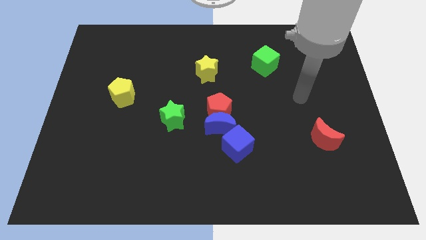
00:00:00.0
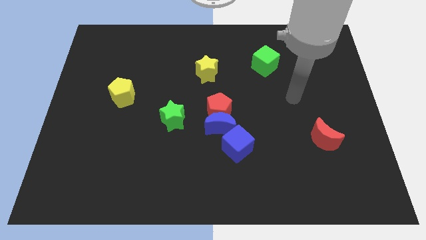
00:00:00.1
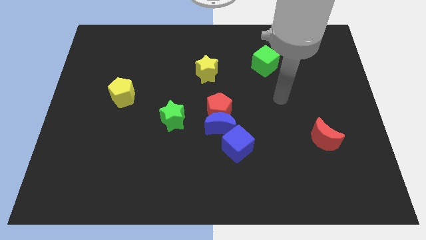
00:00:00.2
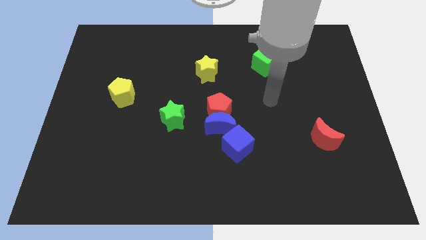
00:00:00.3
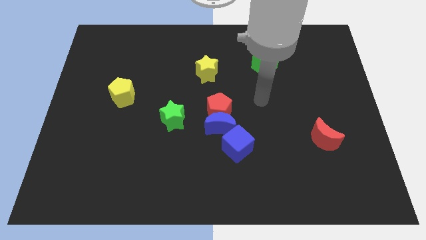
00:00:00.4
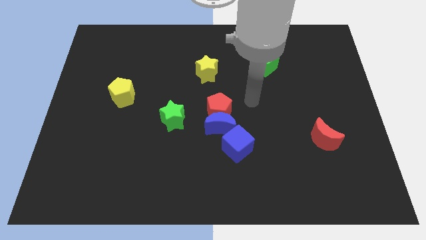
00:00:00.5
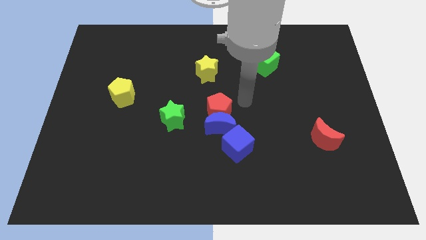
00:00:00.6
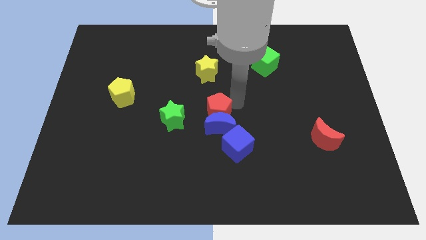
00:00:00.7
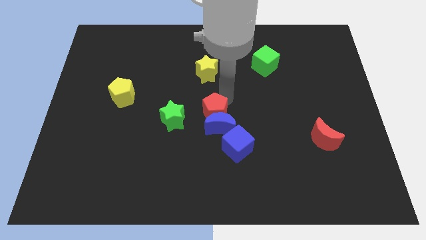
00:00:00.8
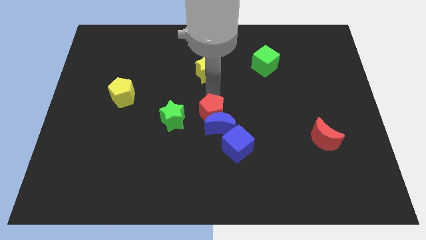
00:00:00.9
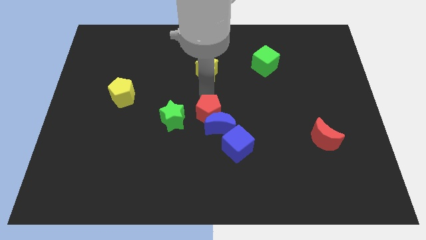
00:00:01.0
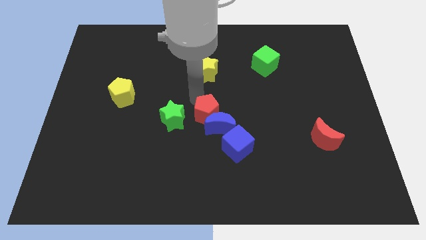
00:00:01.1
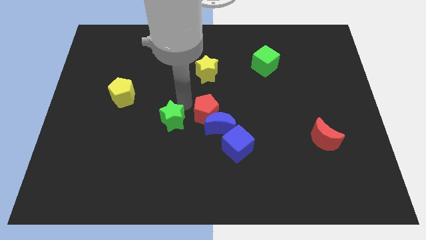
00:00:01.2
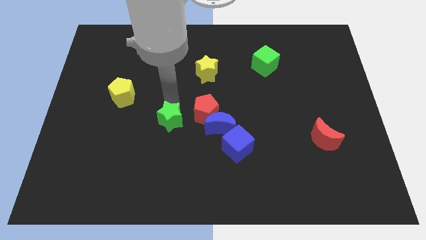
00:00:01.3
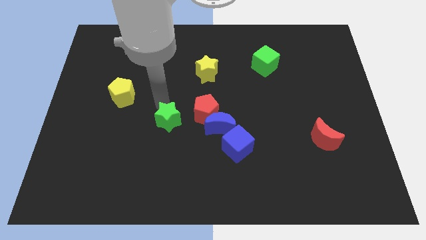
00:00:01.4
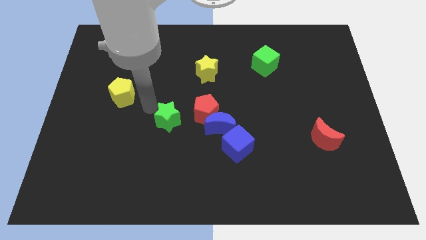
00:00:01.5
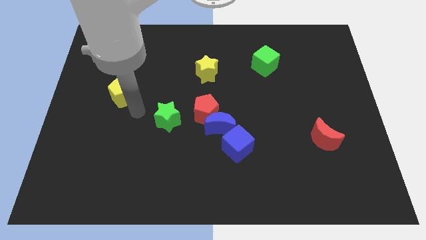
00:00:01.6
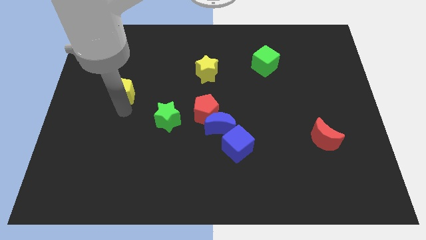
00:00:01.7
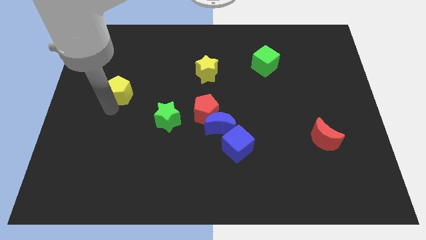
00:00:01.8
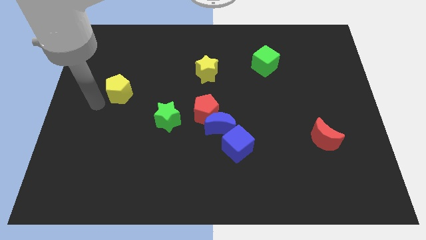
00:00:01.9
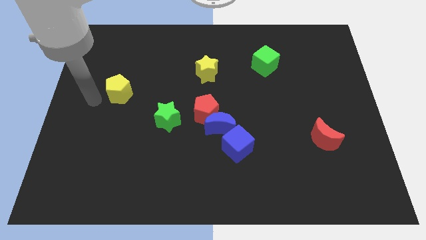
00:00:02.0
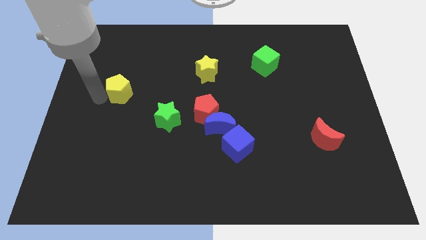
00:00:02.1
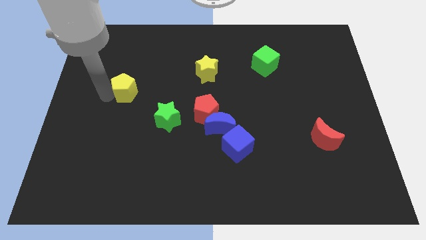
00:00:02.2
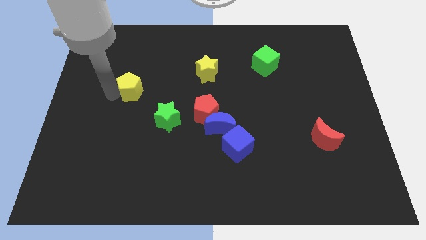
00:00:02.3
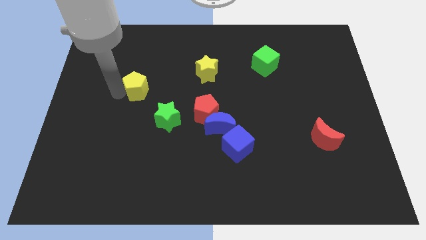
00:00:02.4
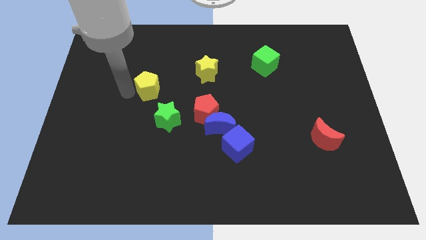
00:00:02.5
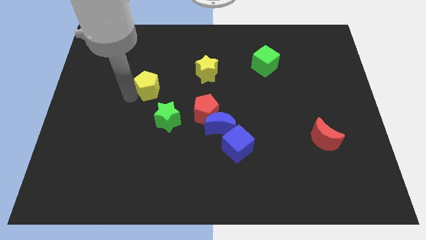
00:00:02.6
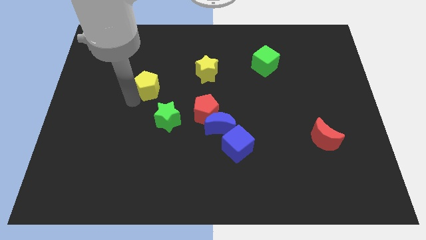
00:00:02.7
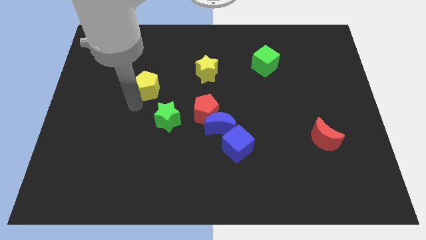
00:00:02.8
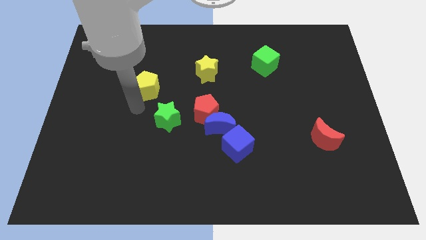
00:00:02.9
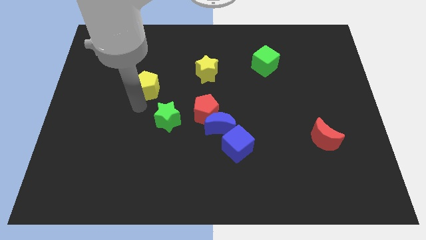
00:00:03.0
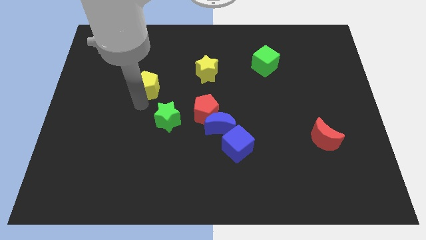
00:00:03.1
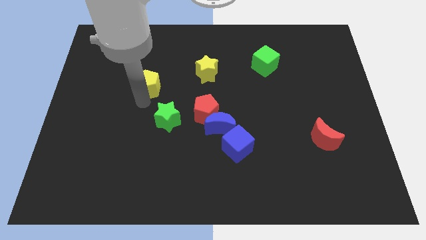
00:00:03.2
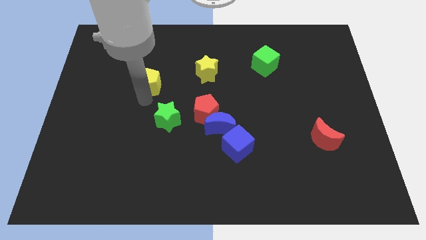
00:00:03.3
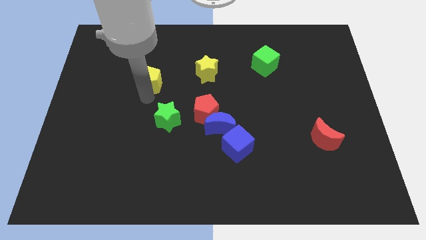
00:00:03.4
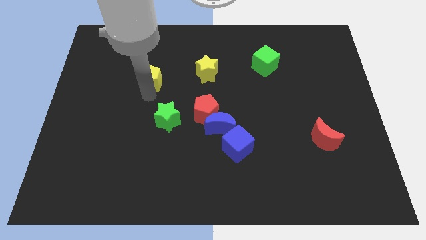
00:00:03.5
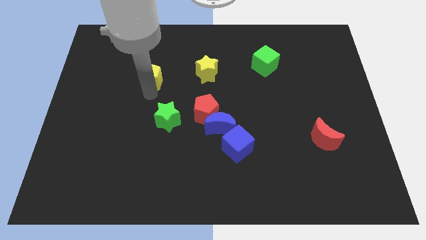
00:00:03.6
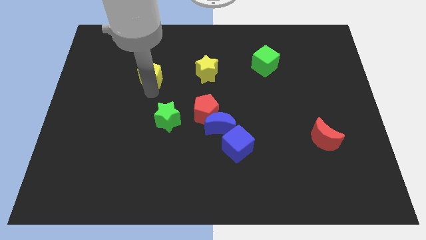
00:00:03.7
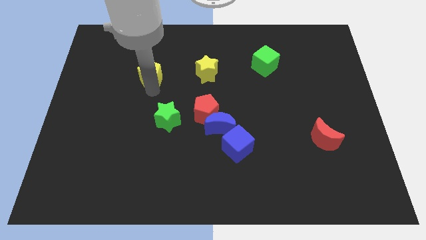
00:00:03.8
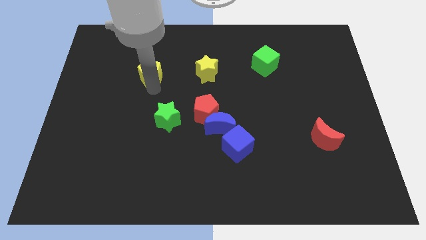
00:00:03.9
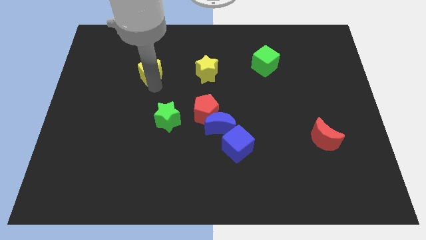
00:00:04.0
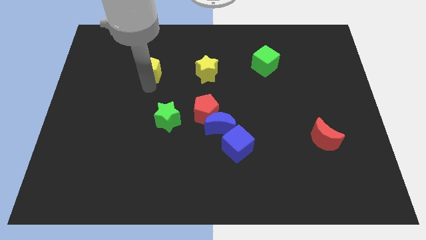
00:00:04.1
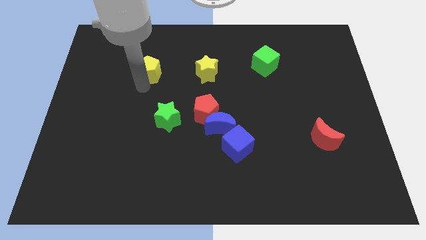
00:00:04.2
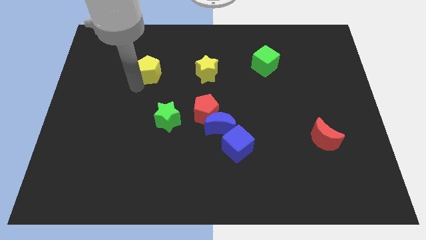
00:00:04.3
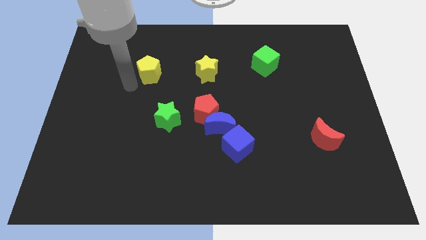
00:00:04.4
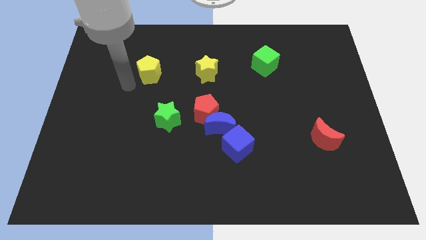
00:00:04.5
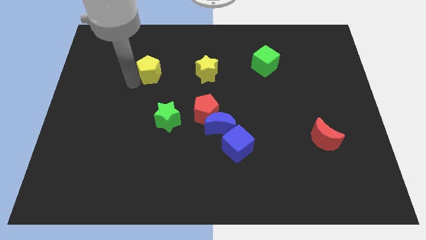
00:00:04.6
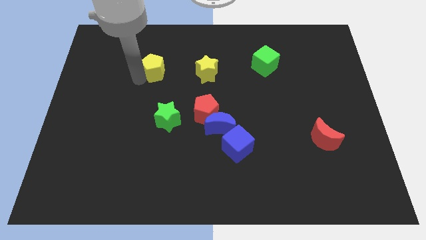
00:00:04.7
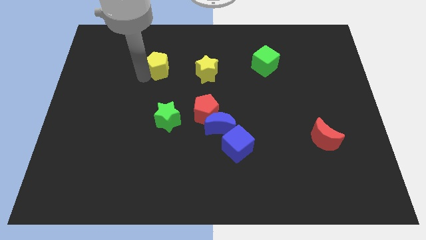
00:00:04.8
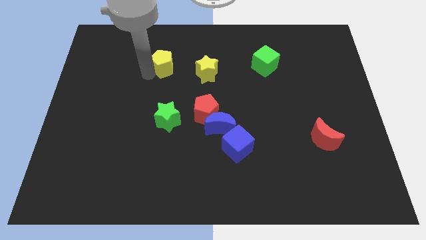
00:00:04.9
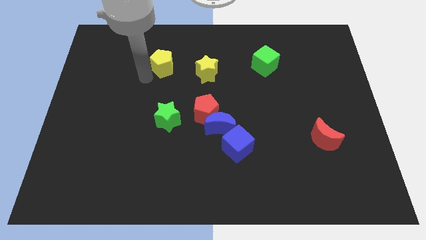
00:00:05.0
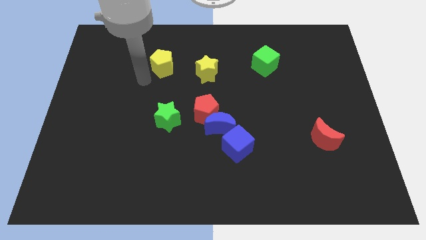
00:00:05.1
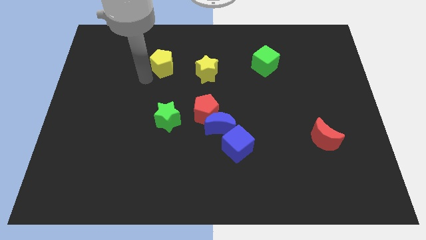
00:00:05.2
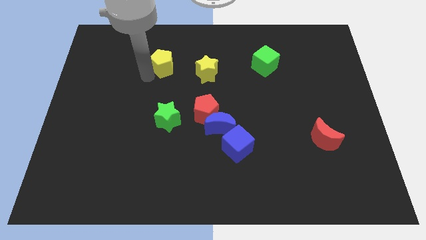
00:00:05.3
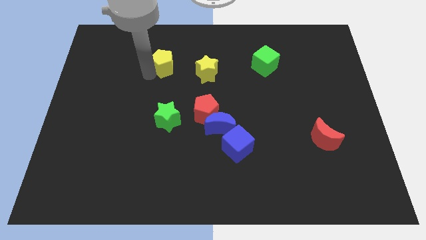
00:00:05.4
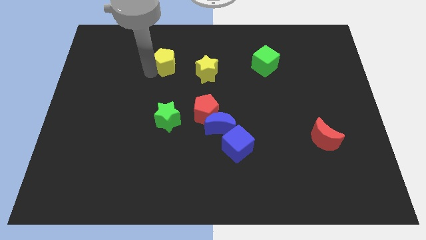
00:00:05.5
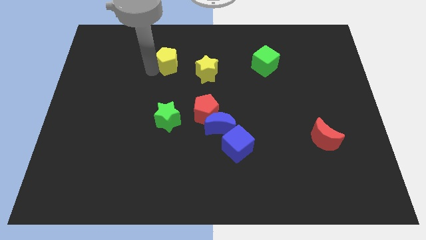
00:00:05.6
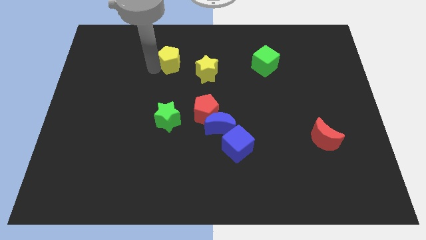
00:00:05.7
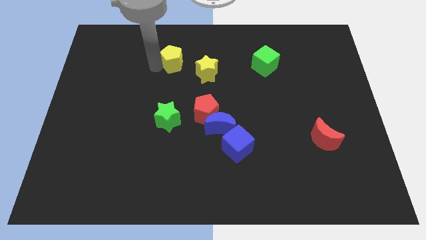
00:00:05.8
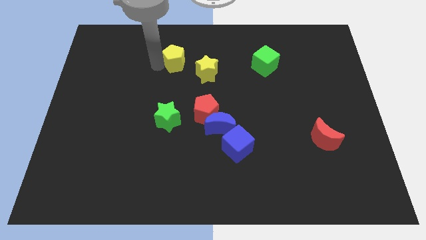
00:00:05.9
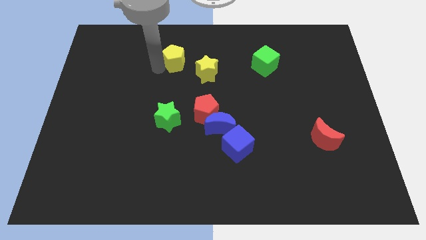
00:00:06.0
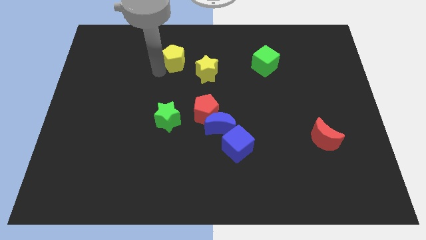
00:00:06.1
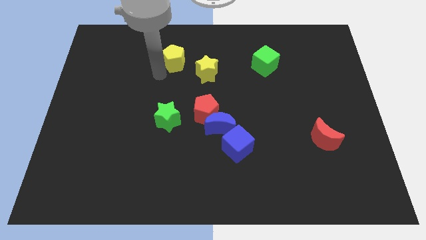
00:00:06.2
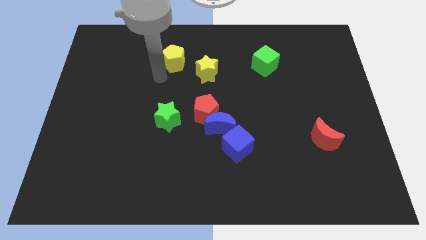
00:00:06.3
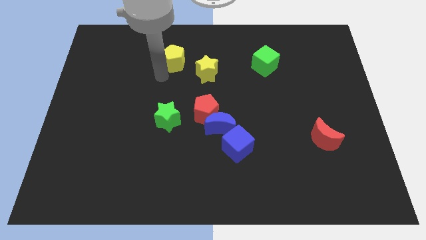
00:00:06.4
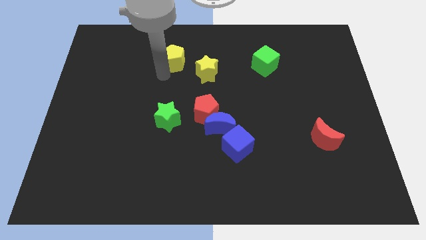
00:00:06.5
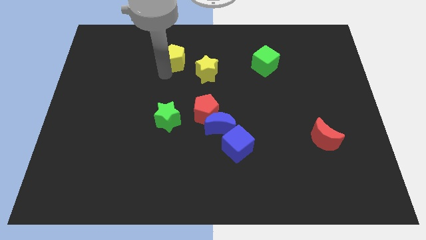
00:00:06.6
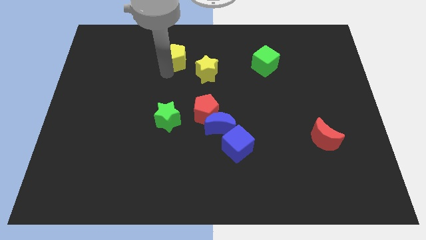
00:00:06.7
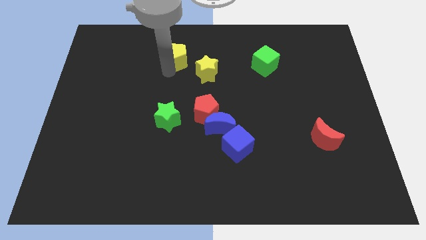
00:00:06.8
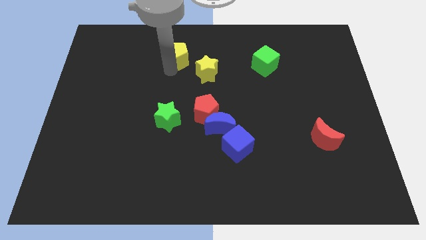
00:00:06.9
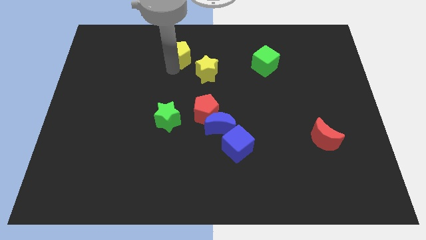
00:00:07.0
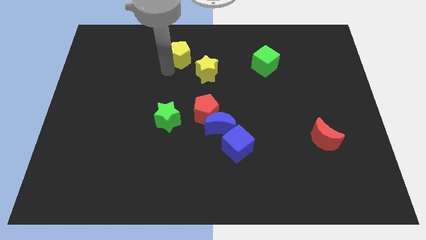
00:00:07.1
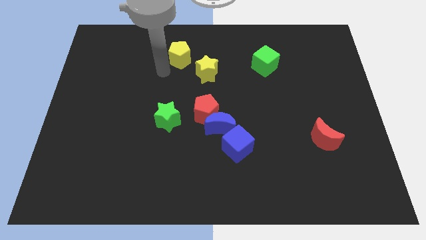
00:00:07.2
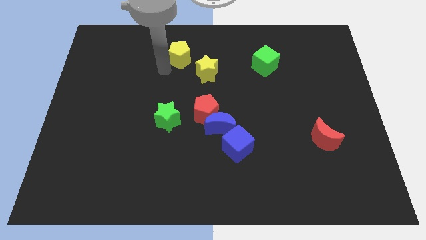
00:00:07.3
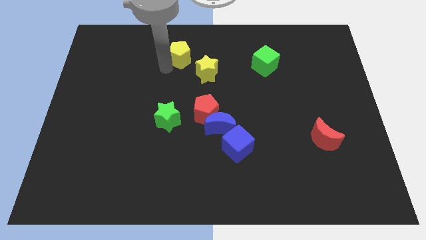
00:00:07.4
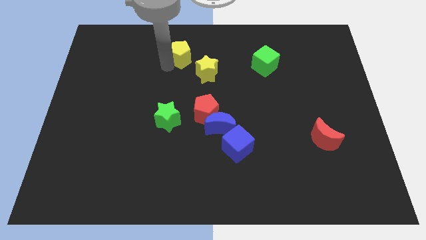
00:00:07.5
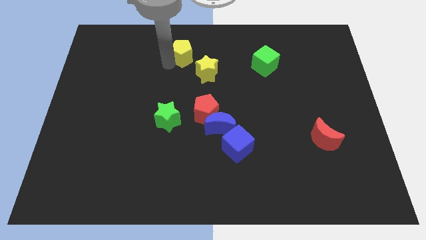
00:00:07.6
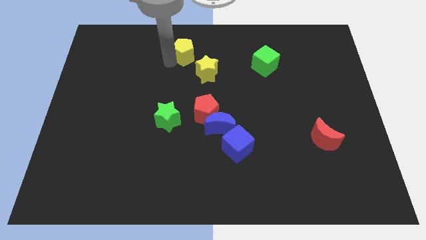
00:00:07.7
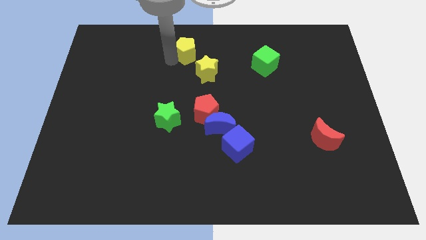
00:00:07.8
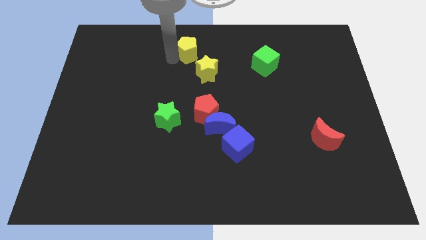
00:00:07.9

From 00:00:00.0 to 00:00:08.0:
put the yellow pentagon to the top side
